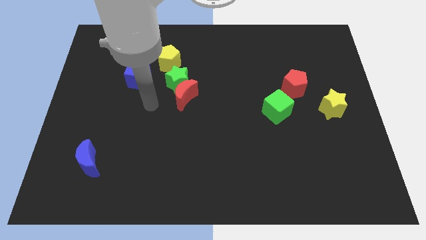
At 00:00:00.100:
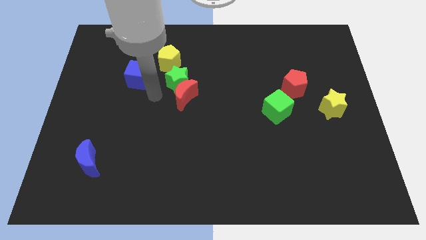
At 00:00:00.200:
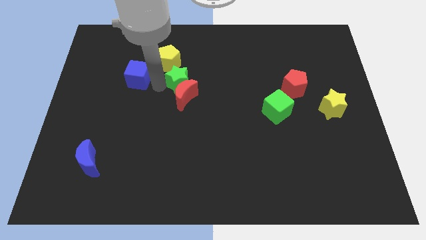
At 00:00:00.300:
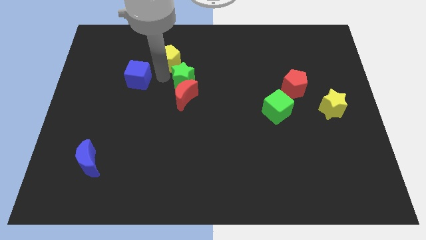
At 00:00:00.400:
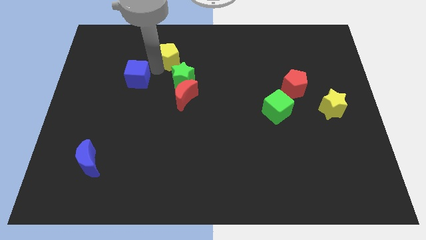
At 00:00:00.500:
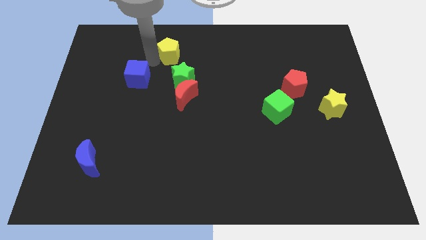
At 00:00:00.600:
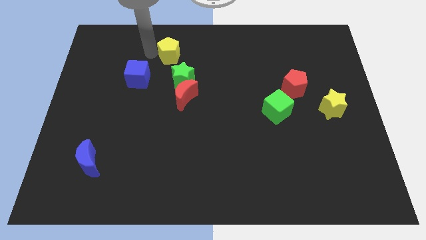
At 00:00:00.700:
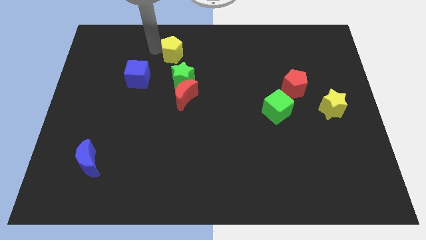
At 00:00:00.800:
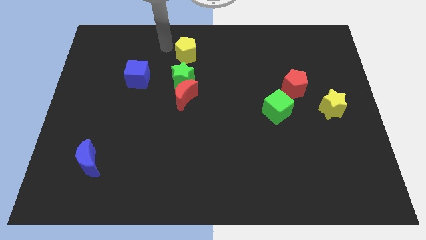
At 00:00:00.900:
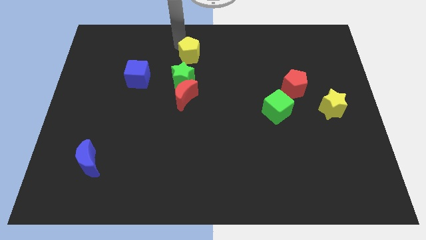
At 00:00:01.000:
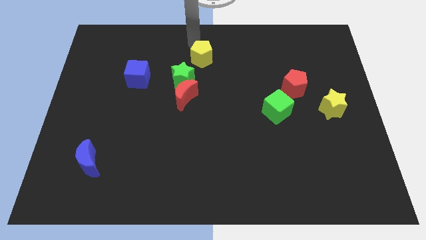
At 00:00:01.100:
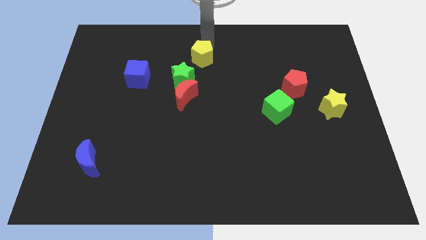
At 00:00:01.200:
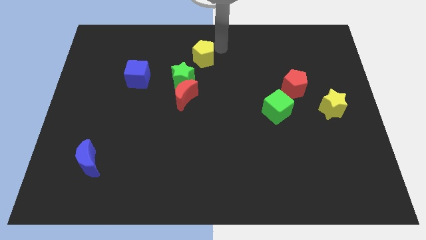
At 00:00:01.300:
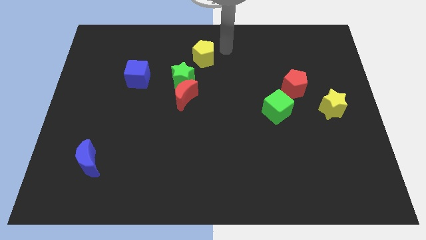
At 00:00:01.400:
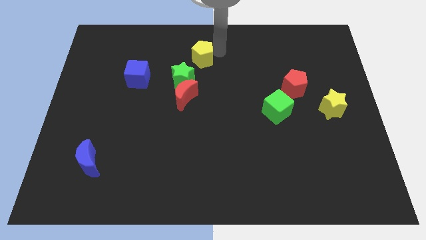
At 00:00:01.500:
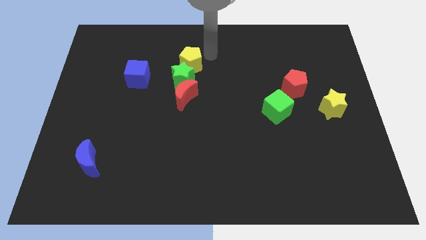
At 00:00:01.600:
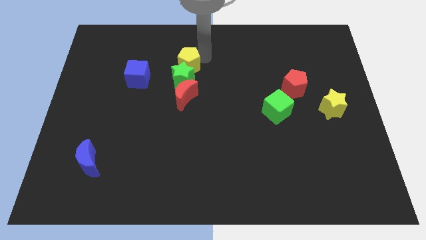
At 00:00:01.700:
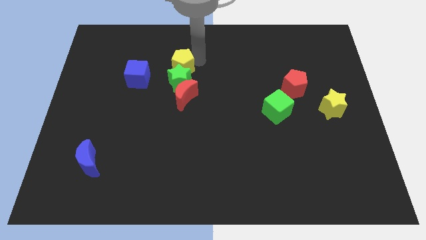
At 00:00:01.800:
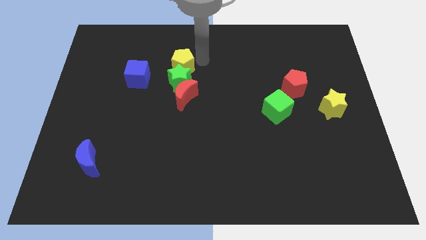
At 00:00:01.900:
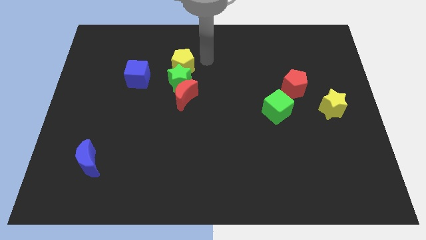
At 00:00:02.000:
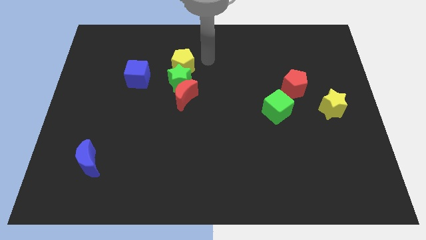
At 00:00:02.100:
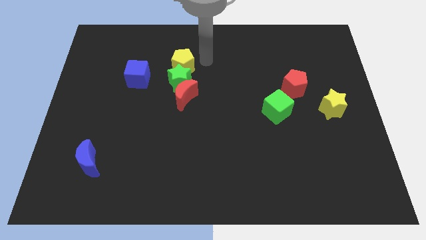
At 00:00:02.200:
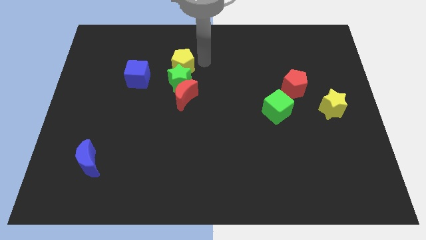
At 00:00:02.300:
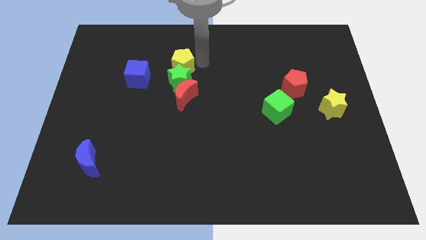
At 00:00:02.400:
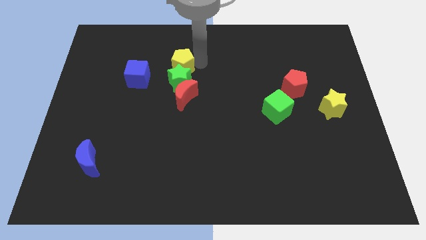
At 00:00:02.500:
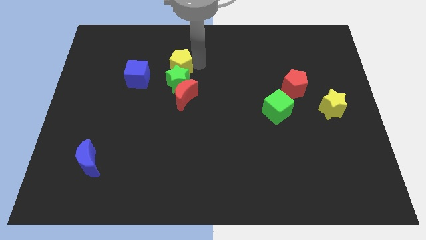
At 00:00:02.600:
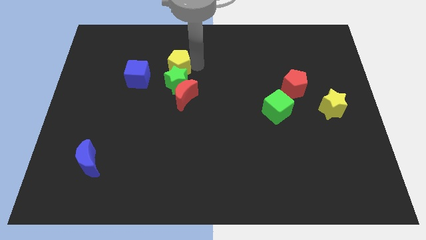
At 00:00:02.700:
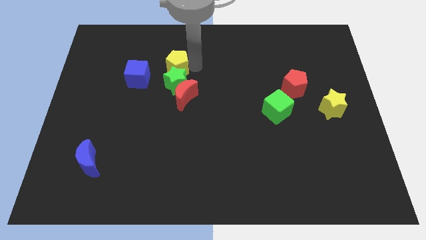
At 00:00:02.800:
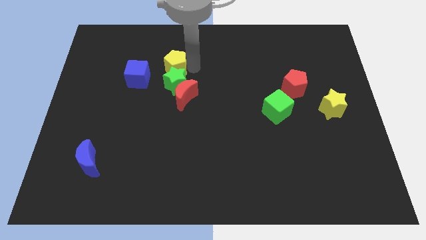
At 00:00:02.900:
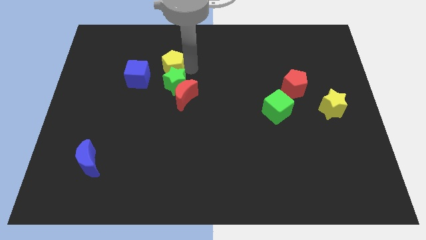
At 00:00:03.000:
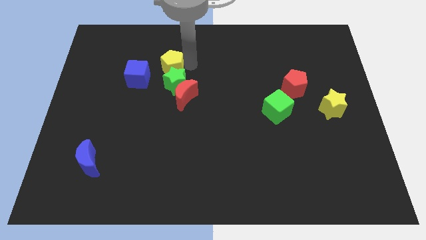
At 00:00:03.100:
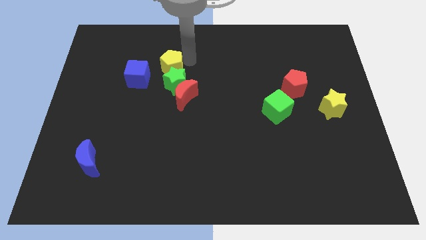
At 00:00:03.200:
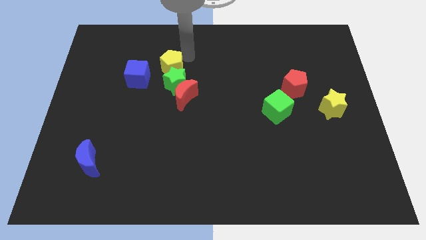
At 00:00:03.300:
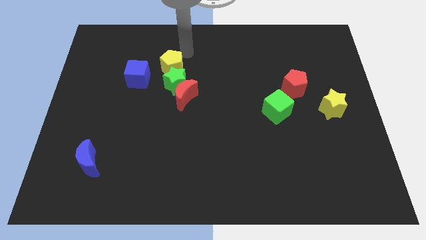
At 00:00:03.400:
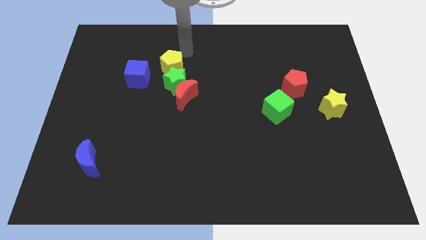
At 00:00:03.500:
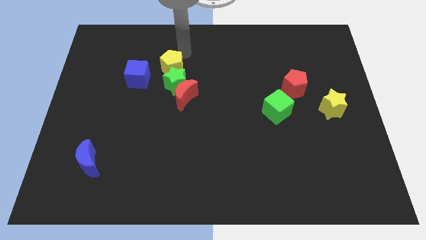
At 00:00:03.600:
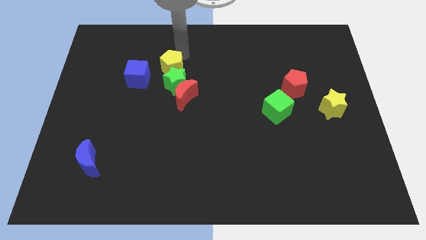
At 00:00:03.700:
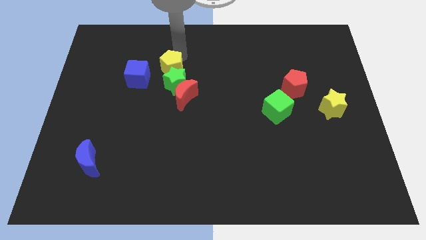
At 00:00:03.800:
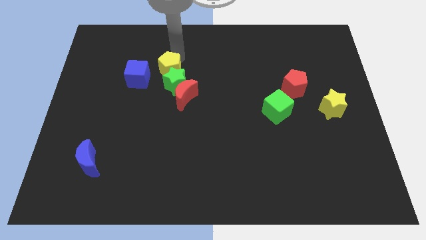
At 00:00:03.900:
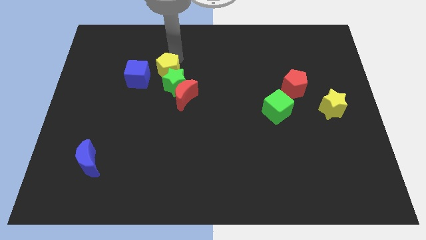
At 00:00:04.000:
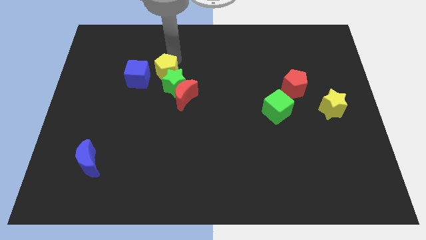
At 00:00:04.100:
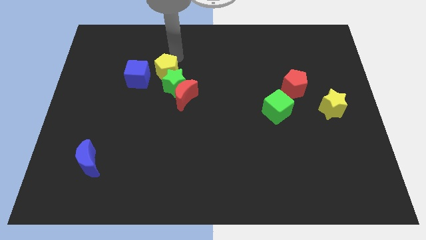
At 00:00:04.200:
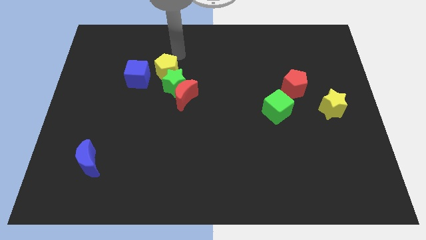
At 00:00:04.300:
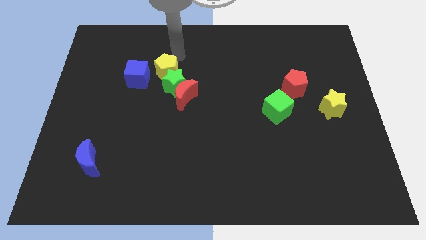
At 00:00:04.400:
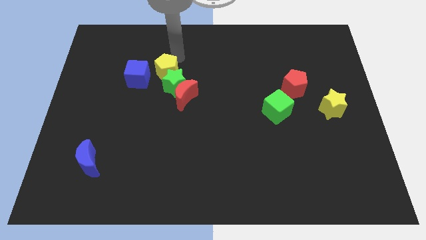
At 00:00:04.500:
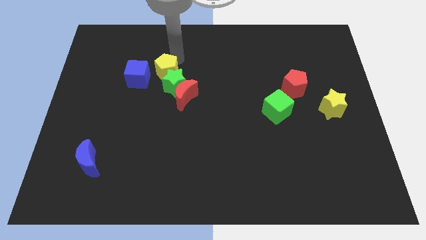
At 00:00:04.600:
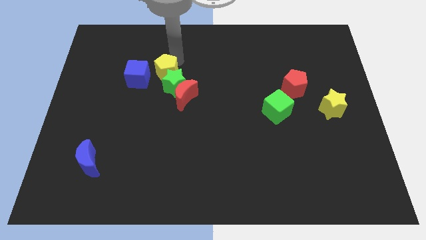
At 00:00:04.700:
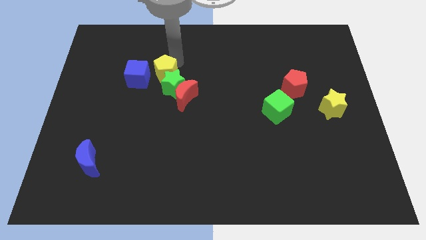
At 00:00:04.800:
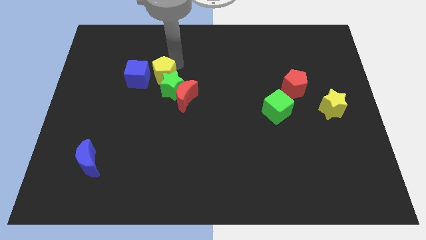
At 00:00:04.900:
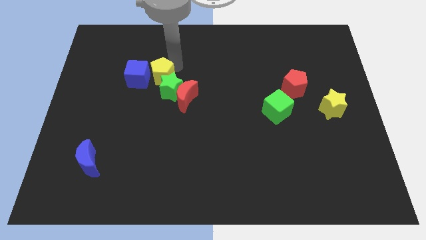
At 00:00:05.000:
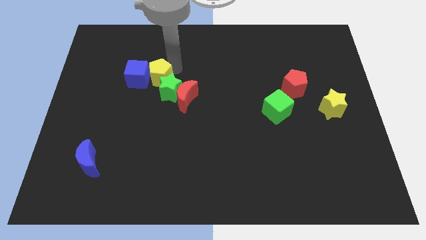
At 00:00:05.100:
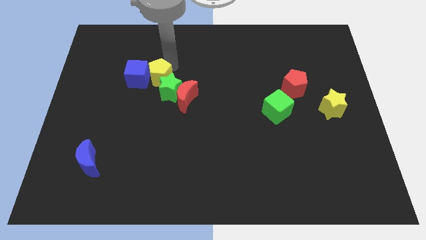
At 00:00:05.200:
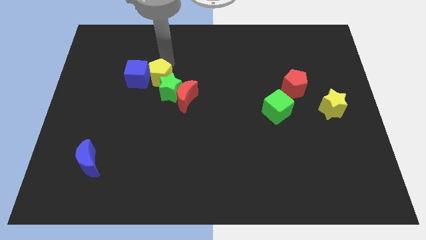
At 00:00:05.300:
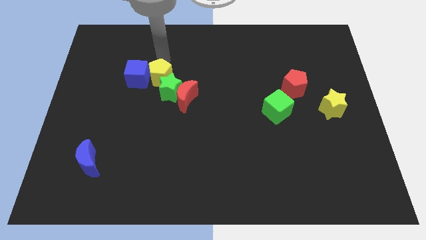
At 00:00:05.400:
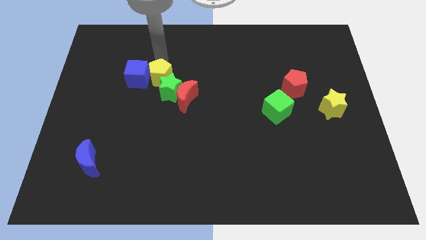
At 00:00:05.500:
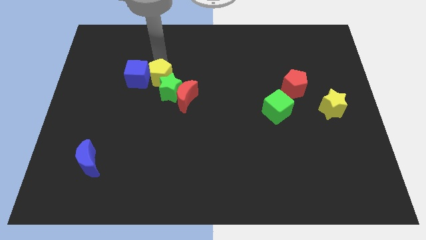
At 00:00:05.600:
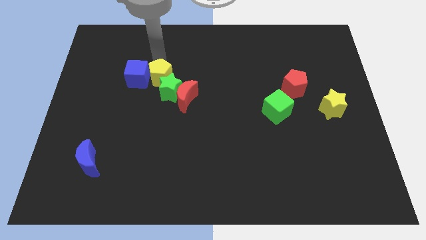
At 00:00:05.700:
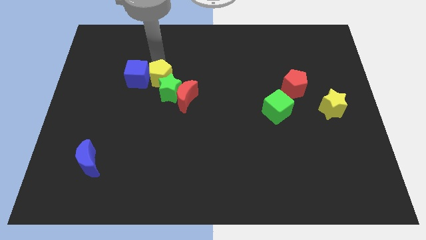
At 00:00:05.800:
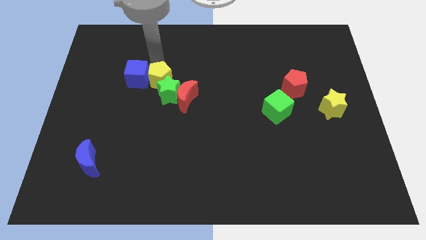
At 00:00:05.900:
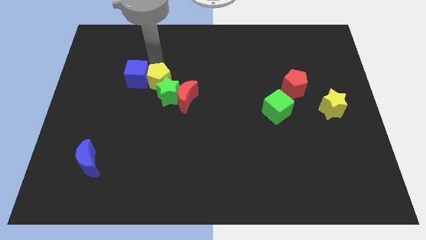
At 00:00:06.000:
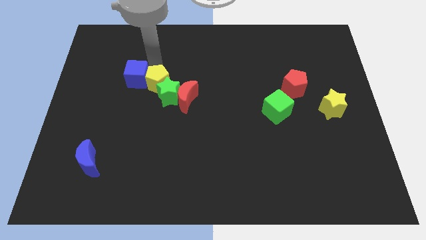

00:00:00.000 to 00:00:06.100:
move the yellow pentagon a little bit down

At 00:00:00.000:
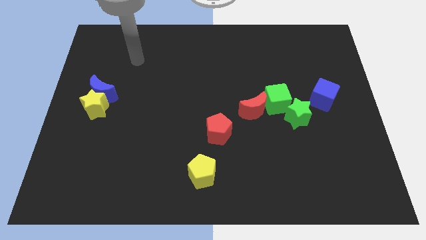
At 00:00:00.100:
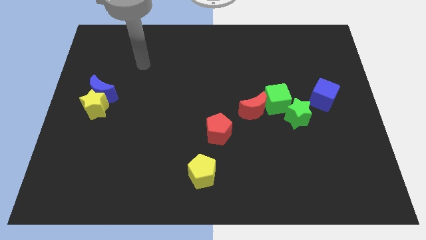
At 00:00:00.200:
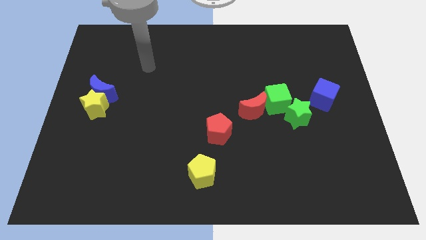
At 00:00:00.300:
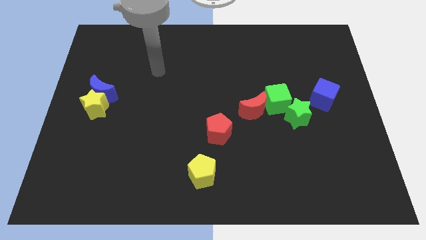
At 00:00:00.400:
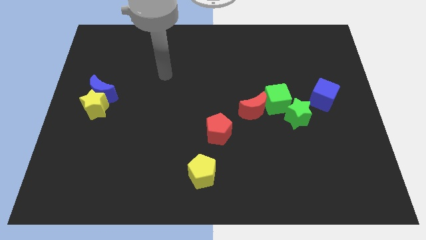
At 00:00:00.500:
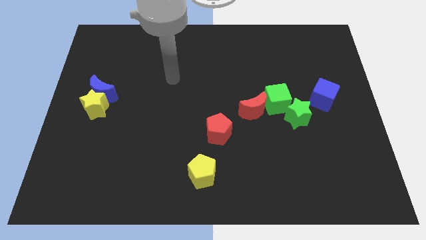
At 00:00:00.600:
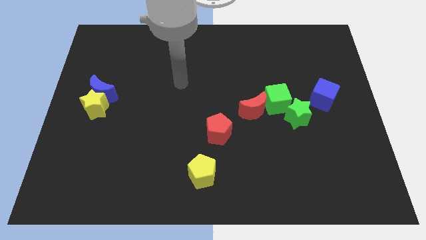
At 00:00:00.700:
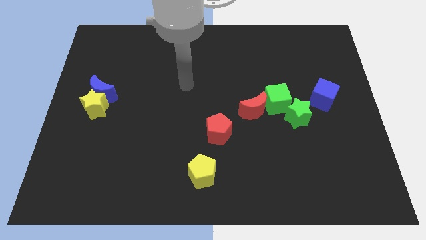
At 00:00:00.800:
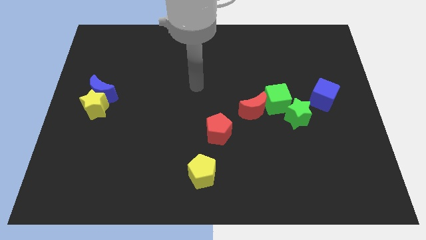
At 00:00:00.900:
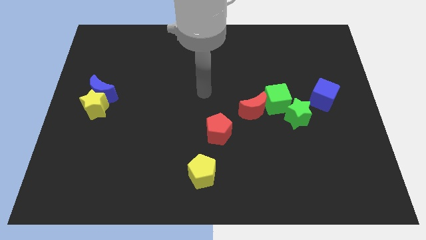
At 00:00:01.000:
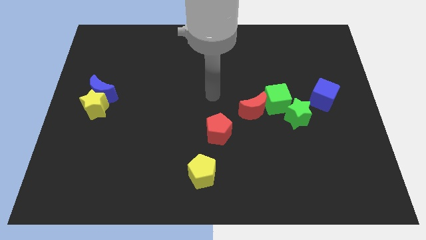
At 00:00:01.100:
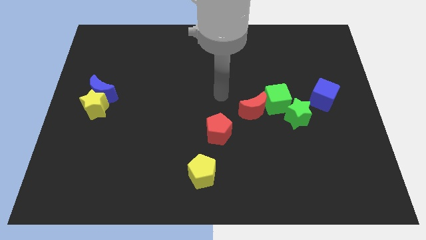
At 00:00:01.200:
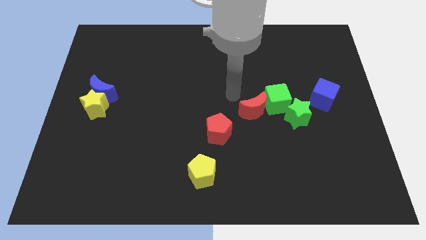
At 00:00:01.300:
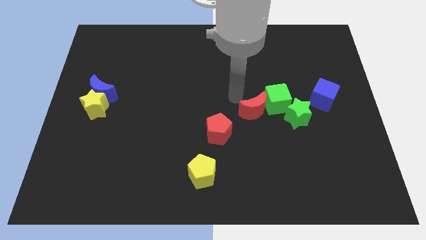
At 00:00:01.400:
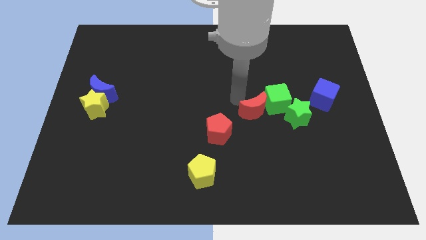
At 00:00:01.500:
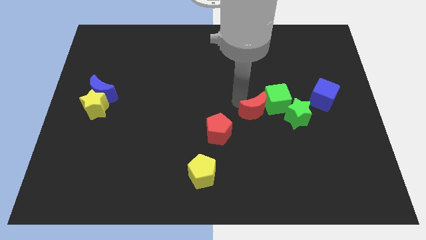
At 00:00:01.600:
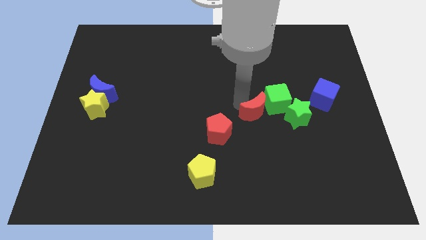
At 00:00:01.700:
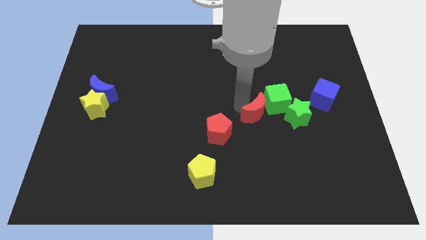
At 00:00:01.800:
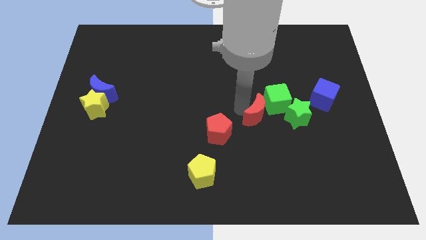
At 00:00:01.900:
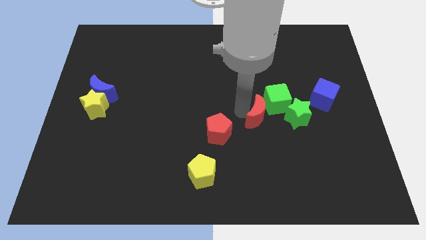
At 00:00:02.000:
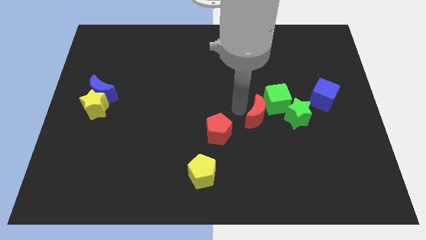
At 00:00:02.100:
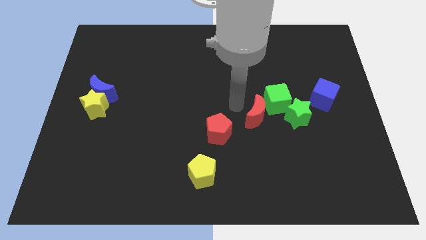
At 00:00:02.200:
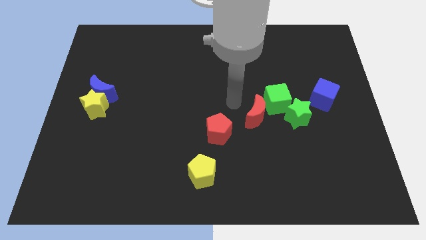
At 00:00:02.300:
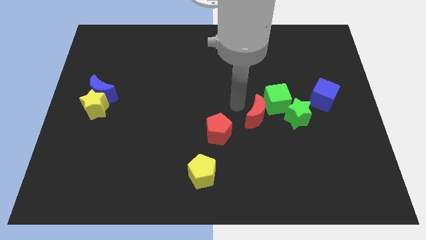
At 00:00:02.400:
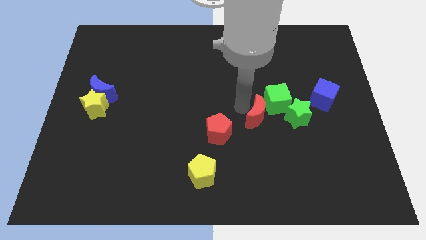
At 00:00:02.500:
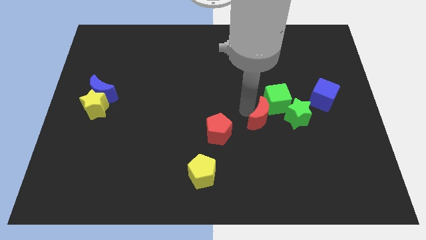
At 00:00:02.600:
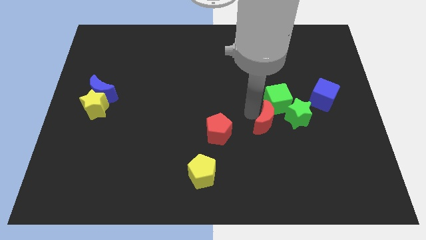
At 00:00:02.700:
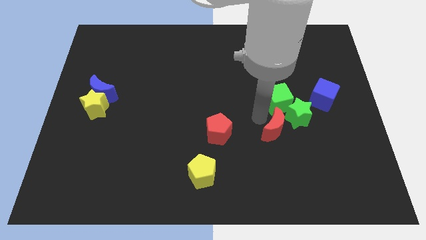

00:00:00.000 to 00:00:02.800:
move the red moon slightly downwards and then right
